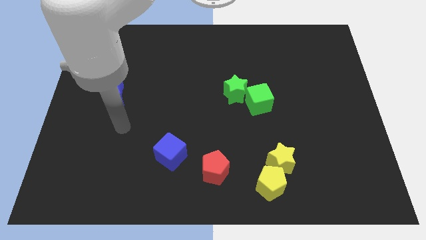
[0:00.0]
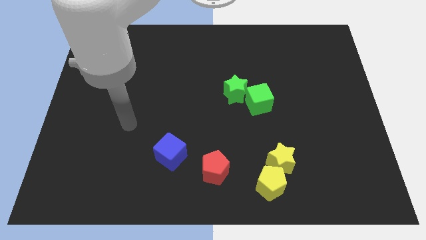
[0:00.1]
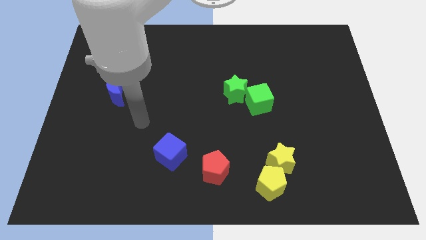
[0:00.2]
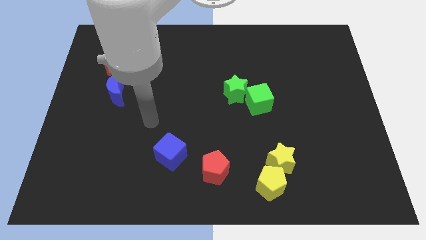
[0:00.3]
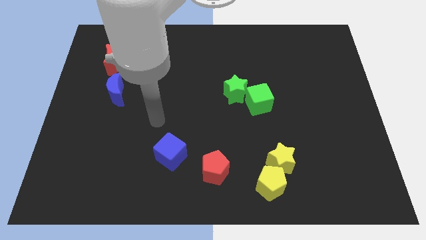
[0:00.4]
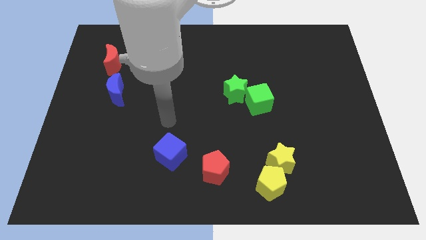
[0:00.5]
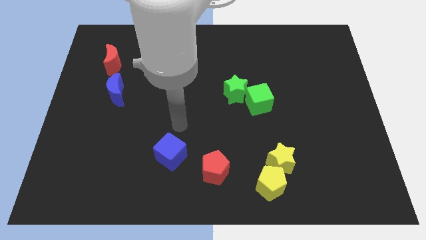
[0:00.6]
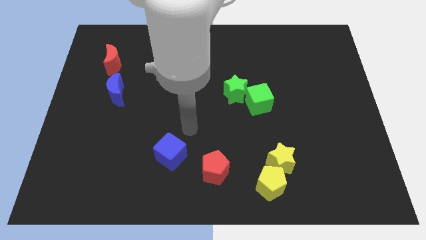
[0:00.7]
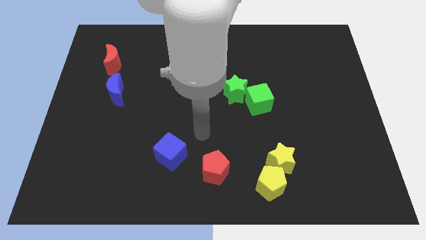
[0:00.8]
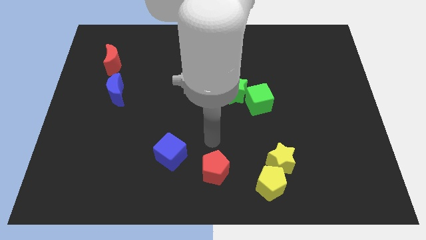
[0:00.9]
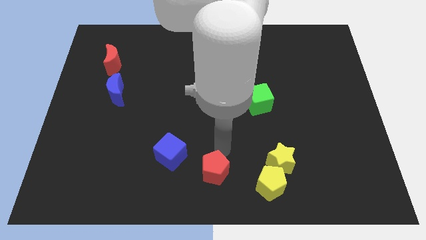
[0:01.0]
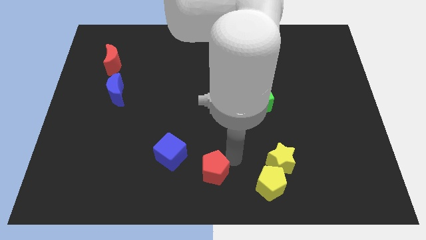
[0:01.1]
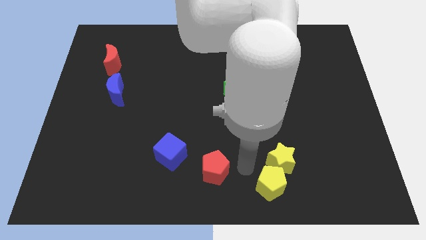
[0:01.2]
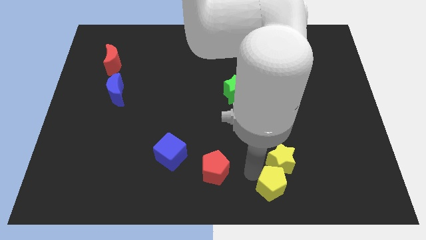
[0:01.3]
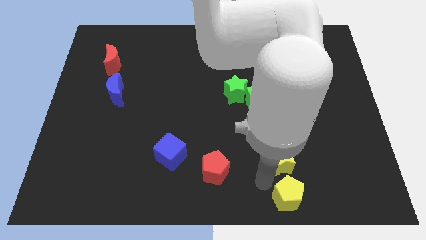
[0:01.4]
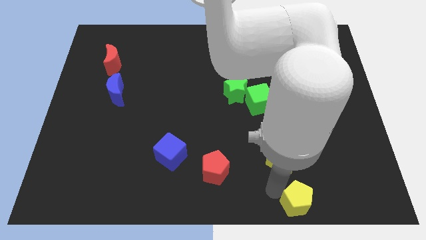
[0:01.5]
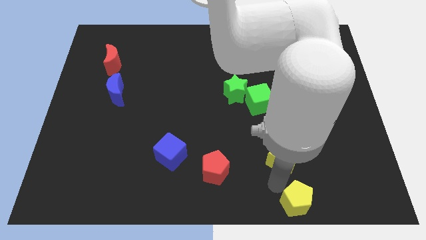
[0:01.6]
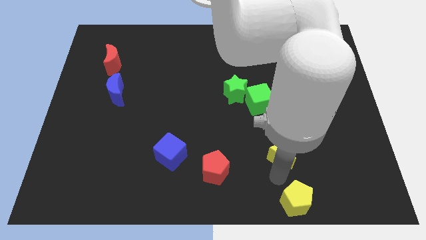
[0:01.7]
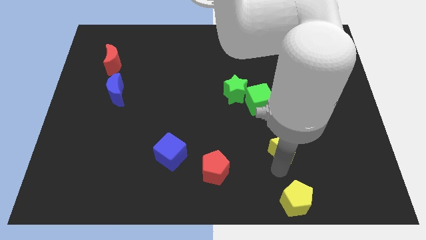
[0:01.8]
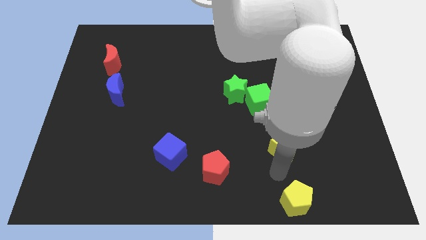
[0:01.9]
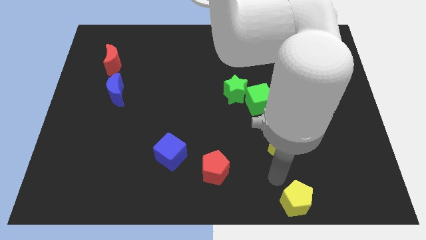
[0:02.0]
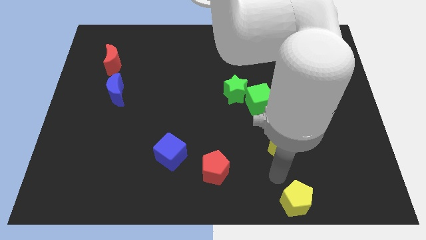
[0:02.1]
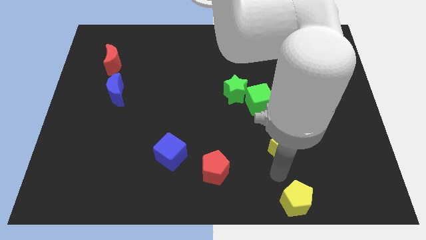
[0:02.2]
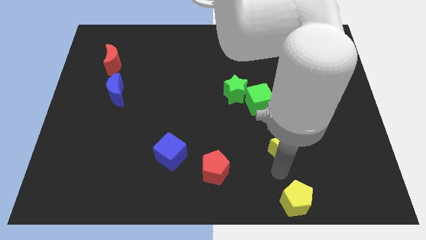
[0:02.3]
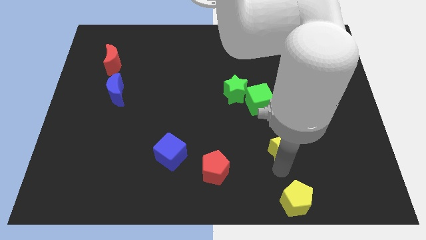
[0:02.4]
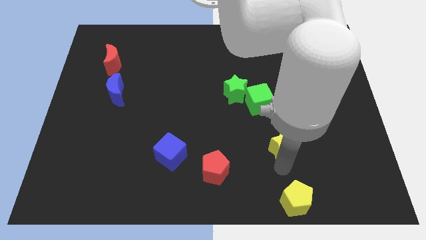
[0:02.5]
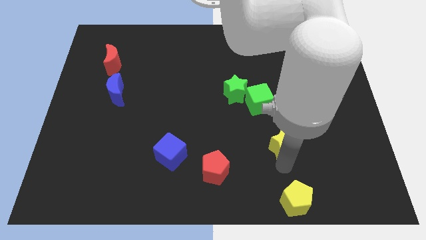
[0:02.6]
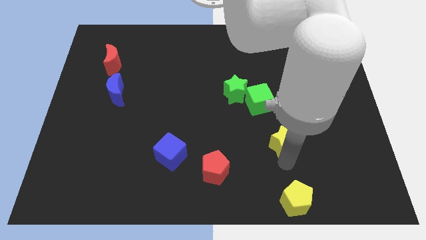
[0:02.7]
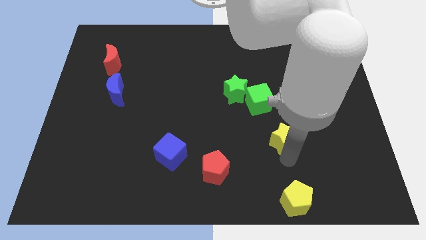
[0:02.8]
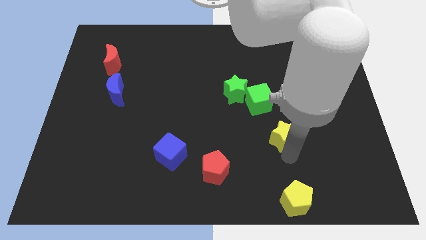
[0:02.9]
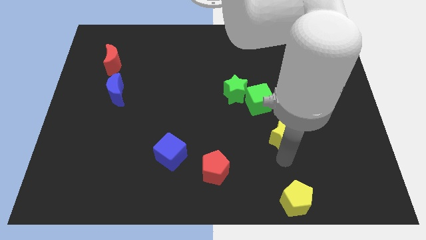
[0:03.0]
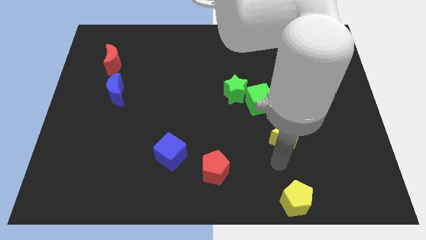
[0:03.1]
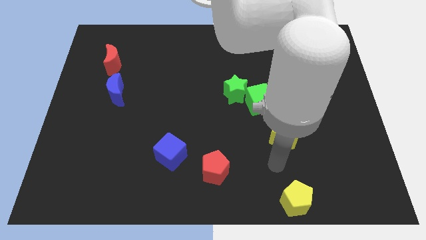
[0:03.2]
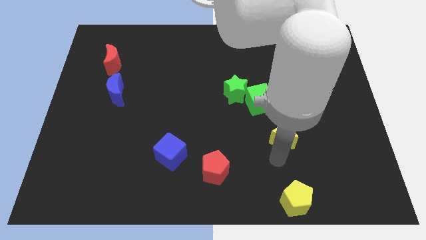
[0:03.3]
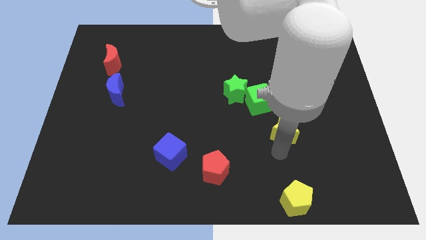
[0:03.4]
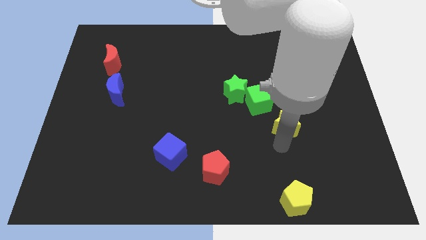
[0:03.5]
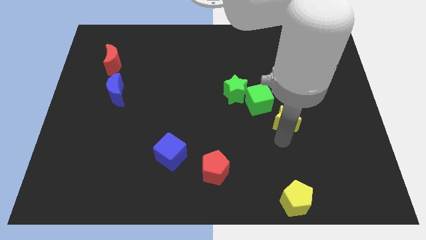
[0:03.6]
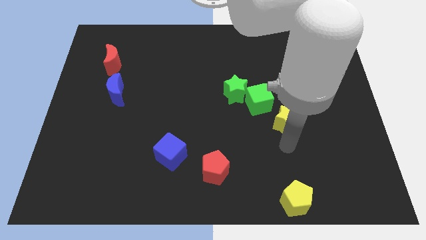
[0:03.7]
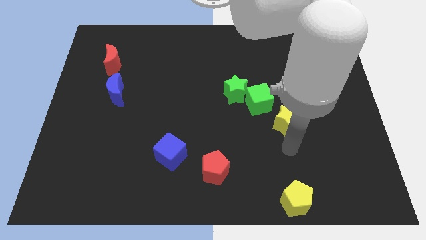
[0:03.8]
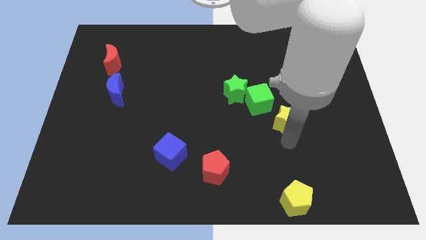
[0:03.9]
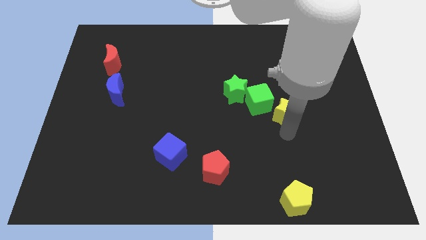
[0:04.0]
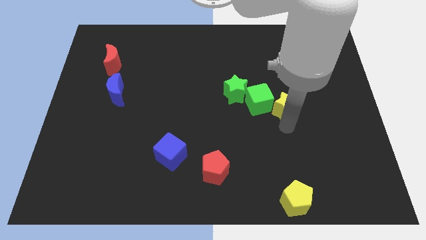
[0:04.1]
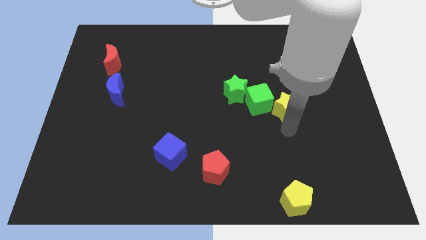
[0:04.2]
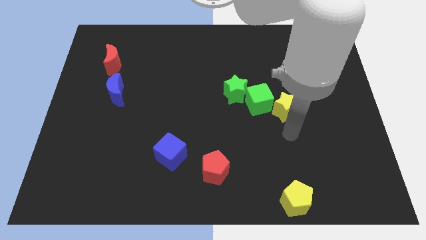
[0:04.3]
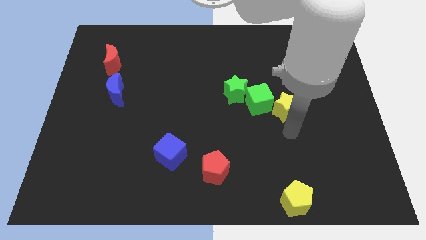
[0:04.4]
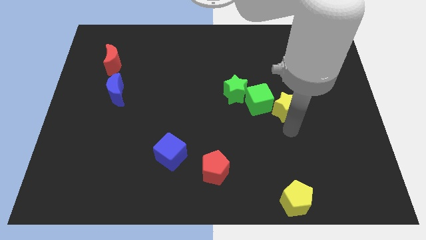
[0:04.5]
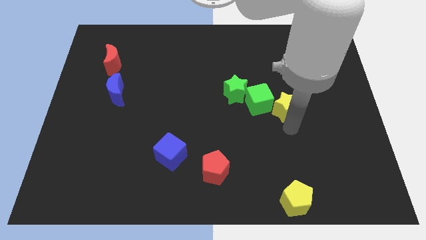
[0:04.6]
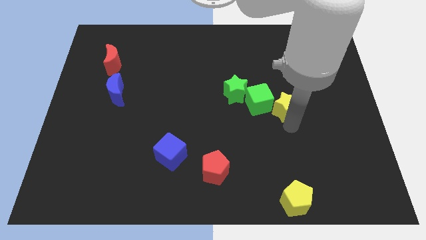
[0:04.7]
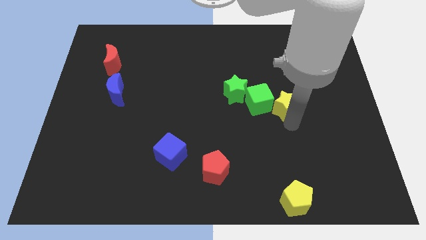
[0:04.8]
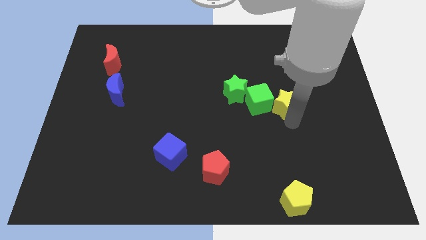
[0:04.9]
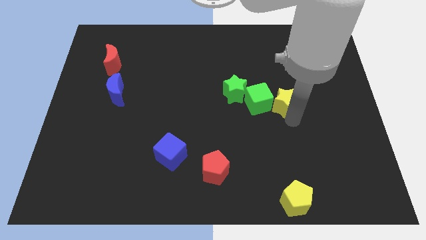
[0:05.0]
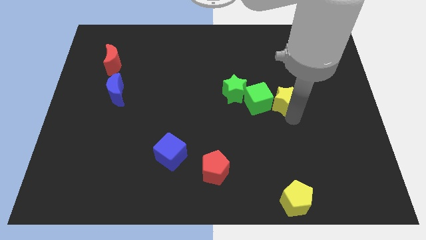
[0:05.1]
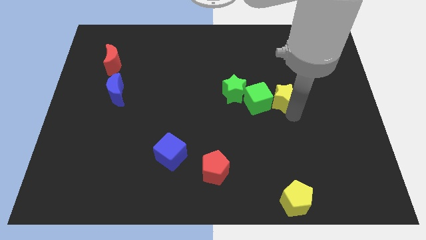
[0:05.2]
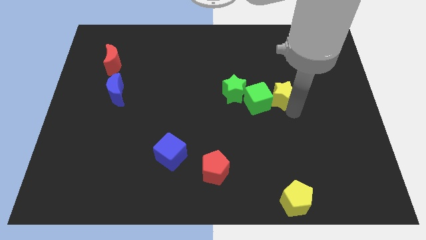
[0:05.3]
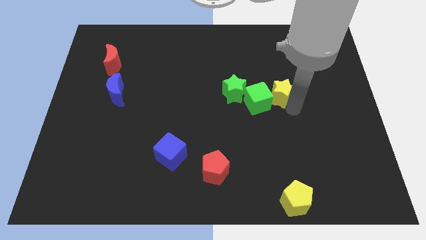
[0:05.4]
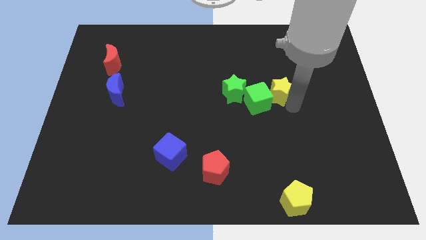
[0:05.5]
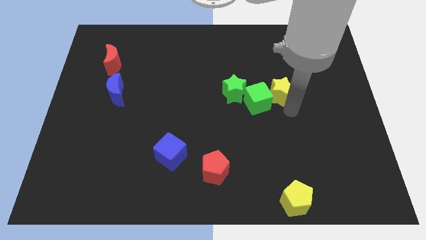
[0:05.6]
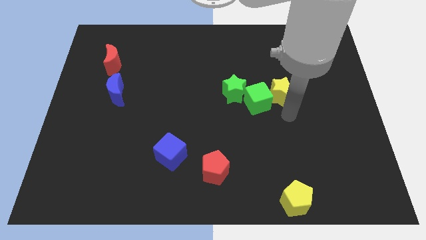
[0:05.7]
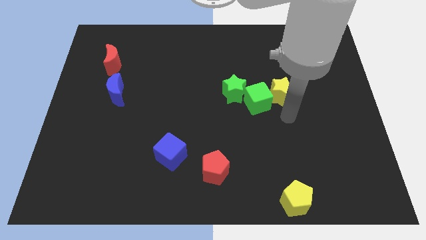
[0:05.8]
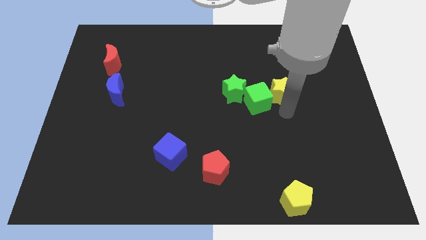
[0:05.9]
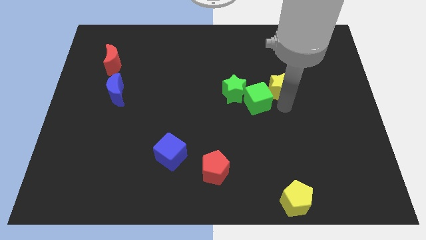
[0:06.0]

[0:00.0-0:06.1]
slide the yellow star upwards

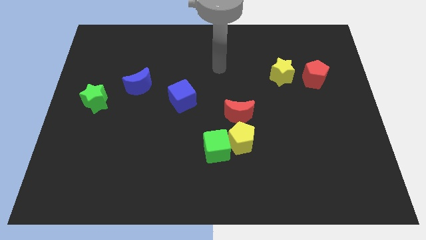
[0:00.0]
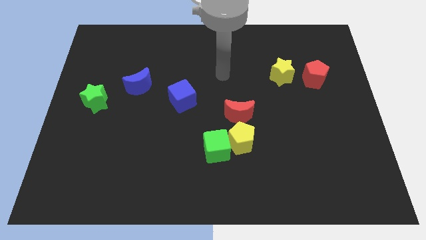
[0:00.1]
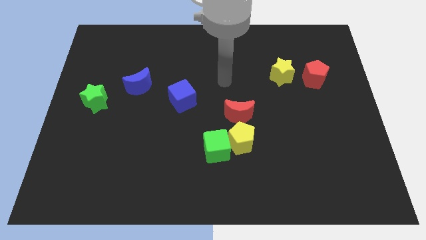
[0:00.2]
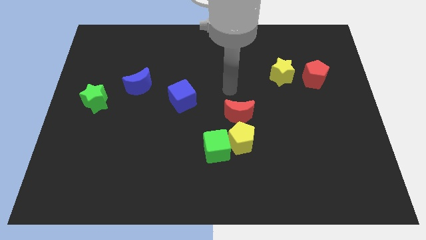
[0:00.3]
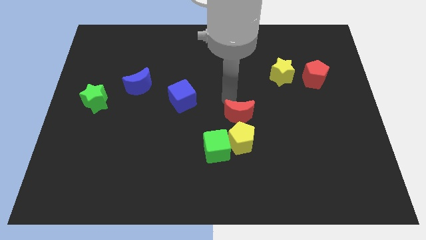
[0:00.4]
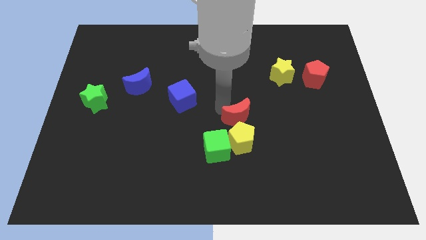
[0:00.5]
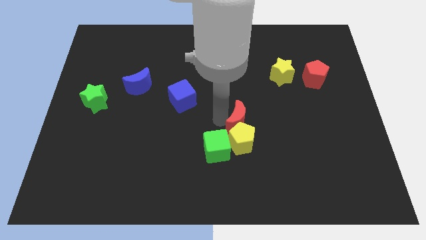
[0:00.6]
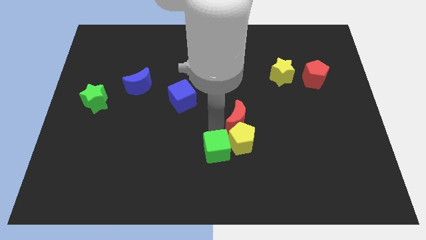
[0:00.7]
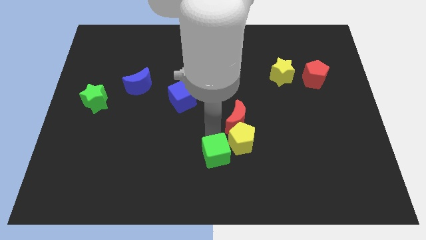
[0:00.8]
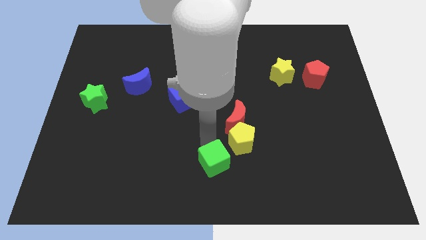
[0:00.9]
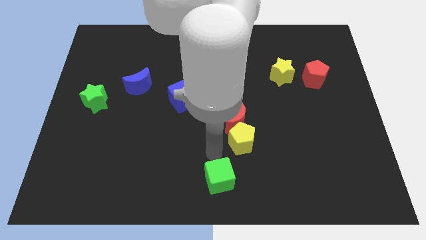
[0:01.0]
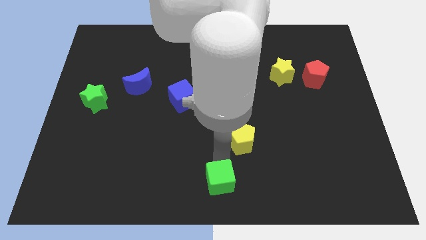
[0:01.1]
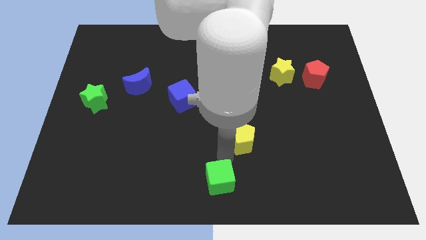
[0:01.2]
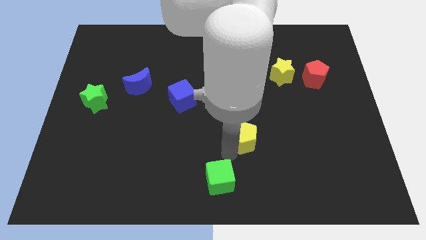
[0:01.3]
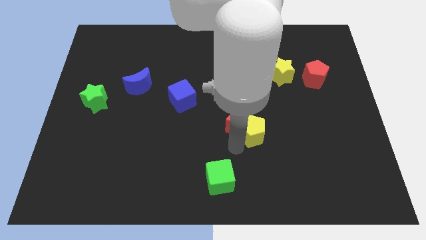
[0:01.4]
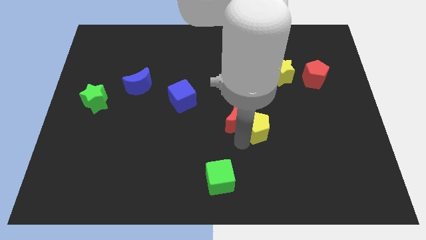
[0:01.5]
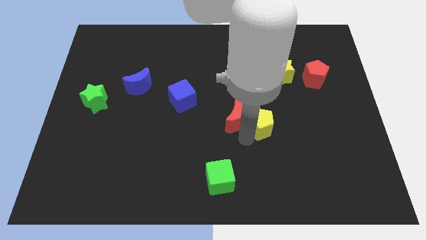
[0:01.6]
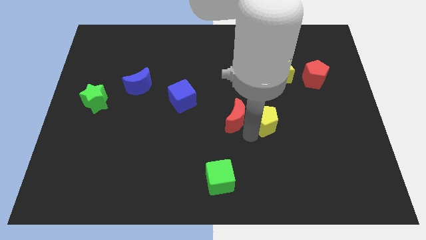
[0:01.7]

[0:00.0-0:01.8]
push the yellow pentagon up and then right a little bit
